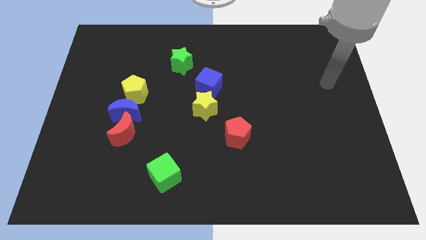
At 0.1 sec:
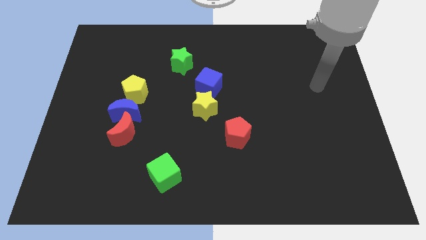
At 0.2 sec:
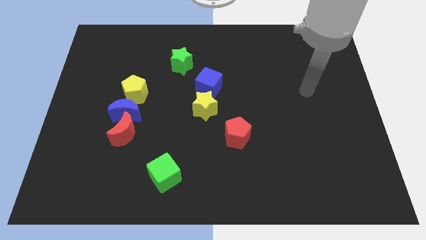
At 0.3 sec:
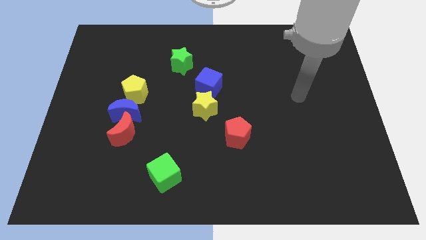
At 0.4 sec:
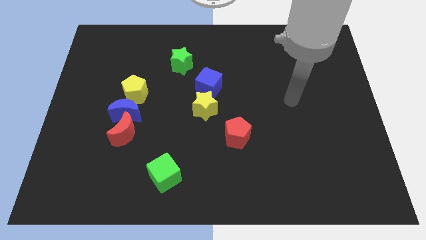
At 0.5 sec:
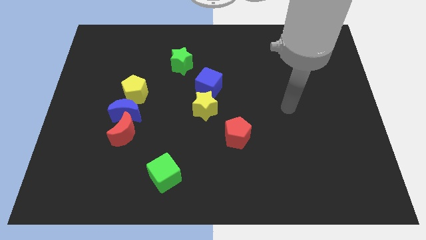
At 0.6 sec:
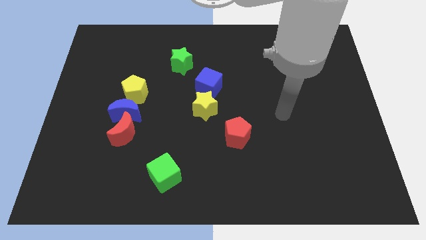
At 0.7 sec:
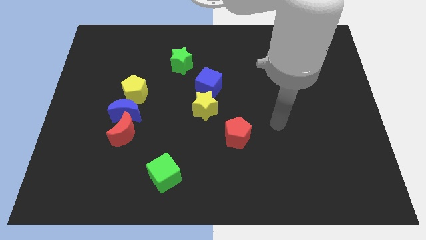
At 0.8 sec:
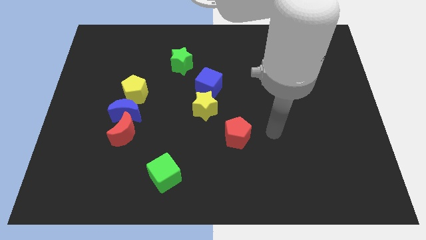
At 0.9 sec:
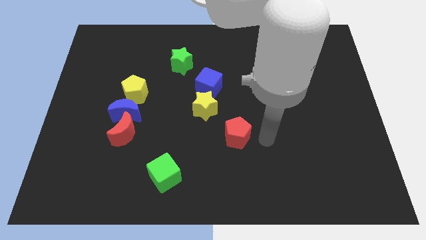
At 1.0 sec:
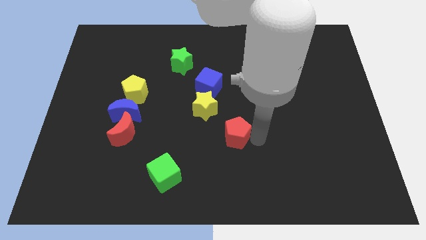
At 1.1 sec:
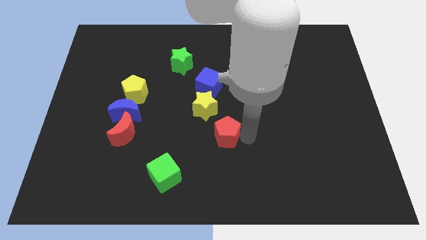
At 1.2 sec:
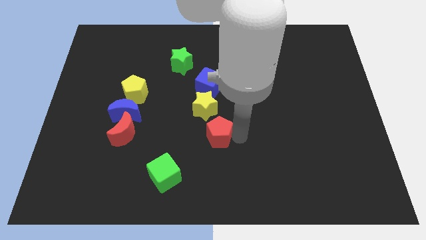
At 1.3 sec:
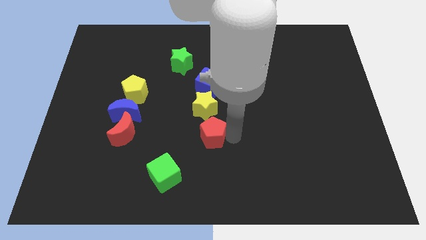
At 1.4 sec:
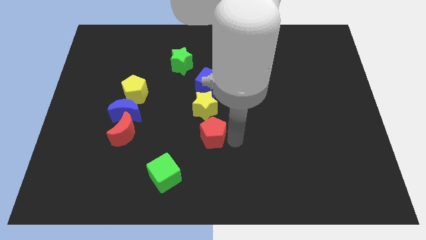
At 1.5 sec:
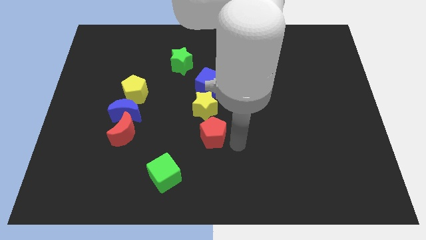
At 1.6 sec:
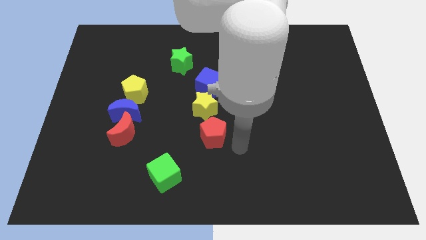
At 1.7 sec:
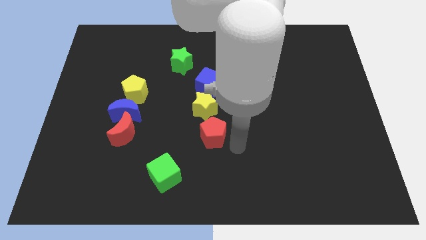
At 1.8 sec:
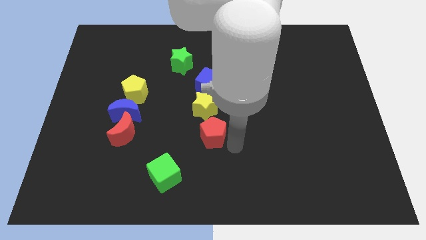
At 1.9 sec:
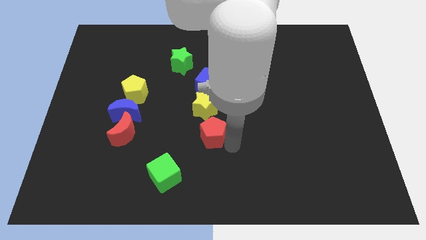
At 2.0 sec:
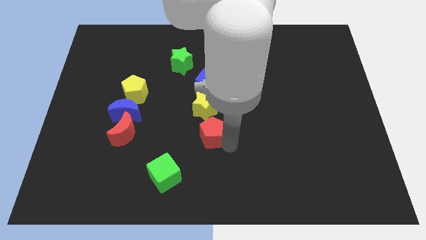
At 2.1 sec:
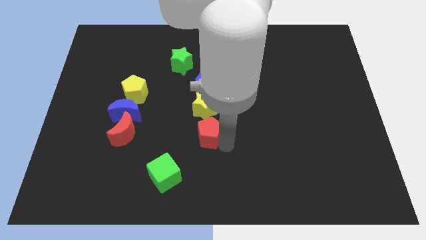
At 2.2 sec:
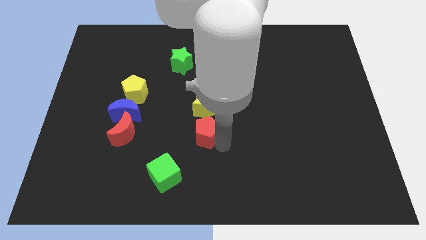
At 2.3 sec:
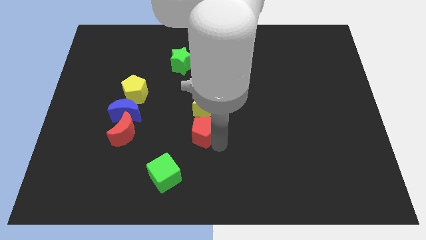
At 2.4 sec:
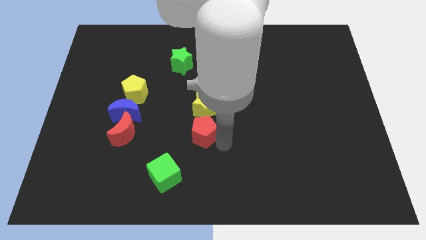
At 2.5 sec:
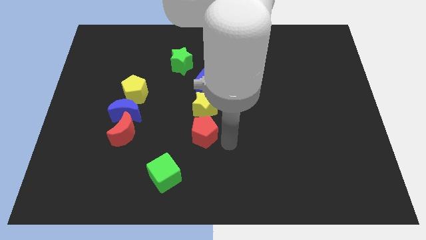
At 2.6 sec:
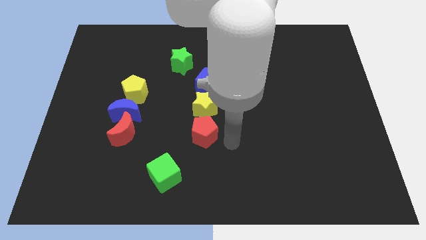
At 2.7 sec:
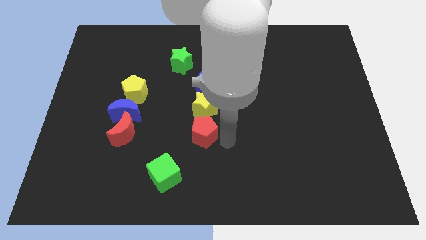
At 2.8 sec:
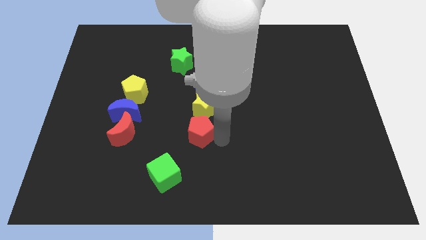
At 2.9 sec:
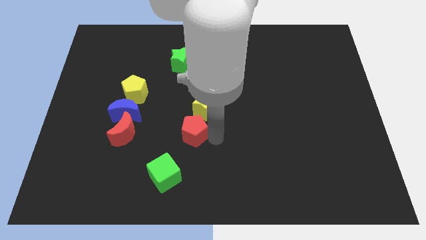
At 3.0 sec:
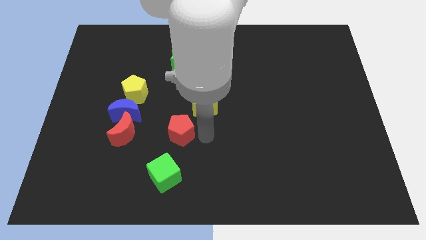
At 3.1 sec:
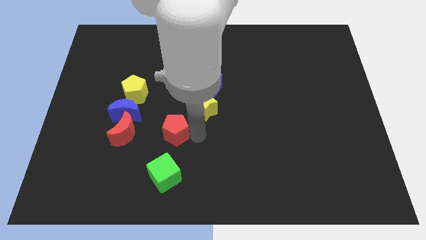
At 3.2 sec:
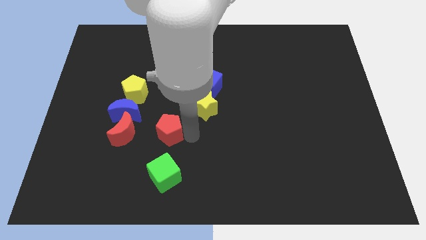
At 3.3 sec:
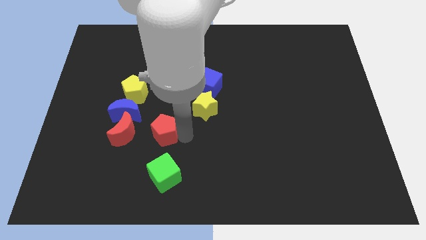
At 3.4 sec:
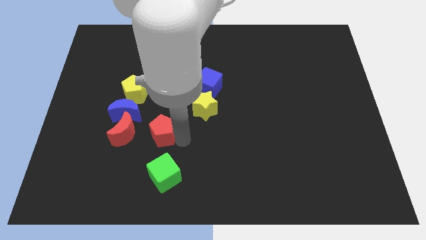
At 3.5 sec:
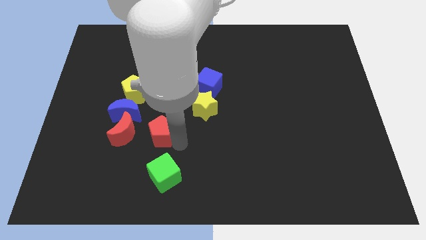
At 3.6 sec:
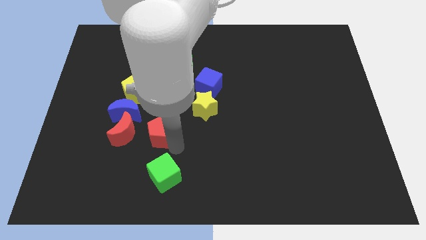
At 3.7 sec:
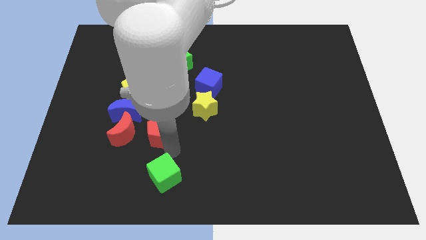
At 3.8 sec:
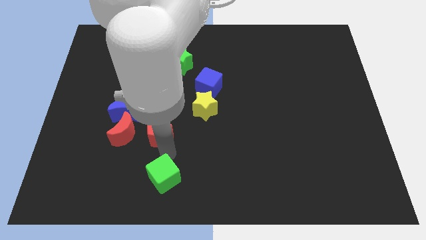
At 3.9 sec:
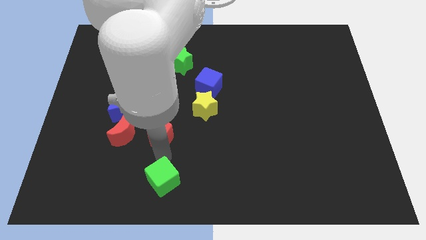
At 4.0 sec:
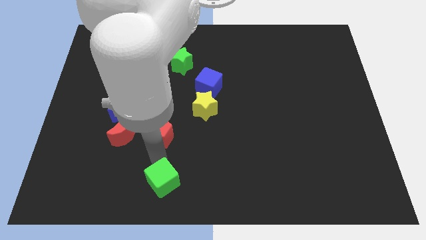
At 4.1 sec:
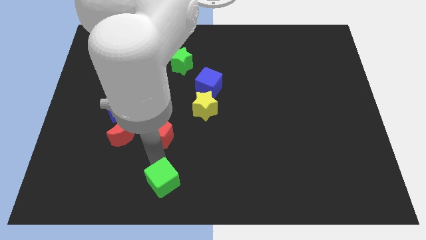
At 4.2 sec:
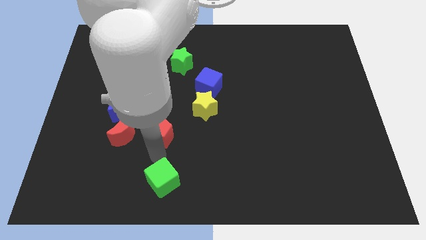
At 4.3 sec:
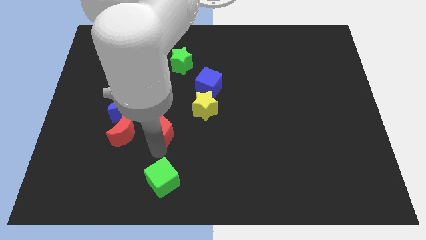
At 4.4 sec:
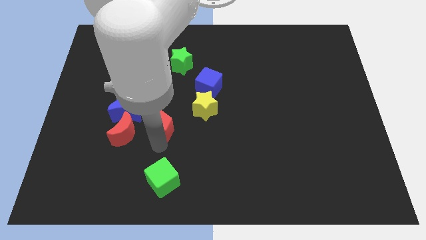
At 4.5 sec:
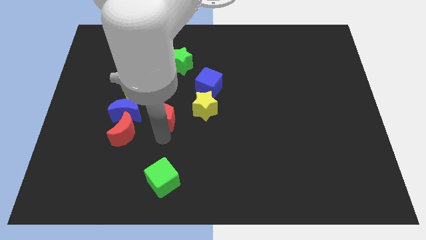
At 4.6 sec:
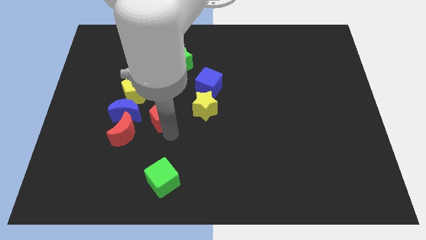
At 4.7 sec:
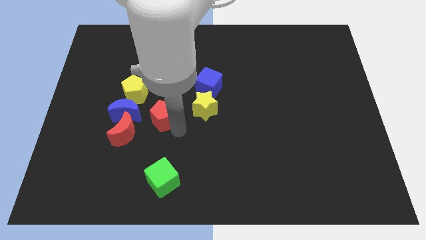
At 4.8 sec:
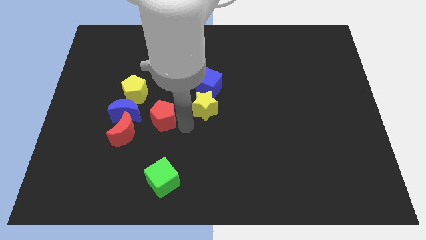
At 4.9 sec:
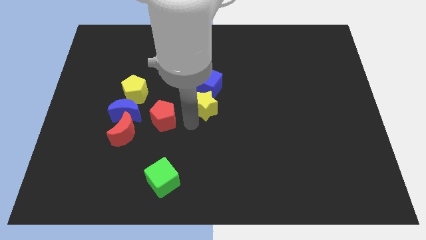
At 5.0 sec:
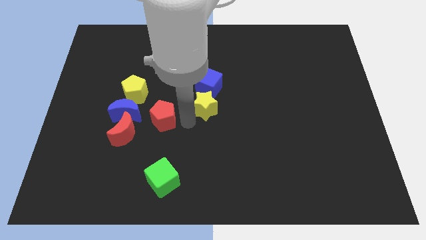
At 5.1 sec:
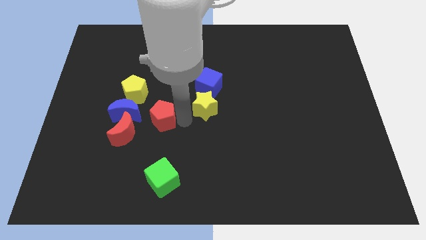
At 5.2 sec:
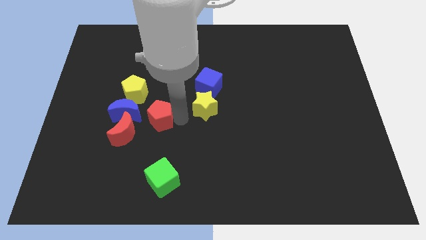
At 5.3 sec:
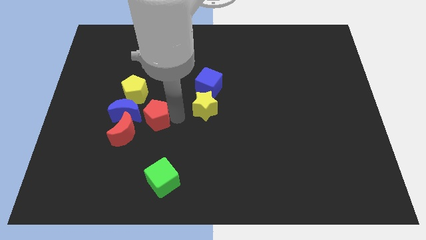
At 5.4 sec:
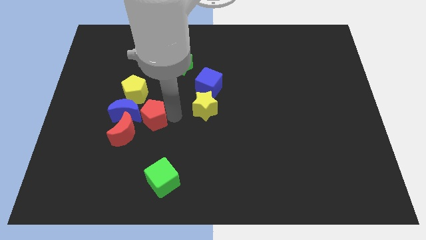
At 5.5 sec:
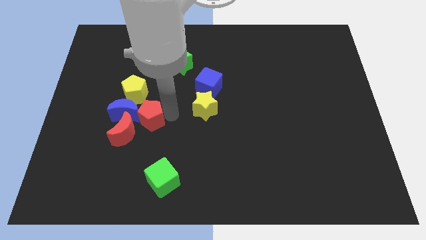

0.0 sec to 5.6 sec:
move the red pentagon next to the blue moon
